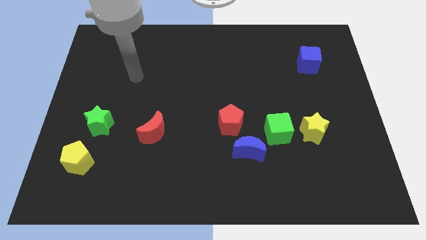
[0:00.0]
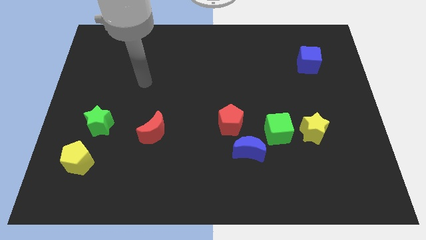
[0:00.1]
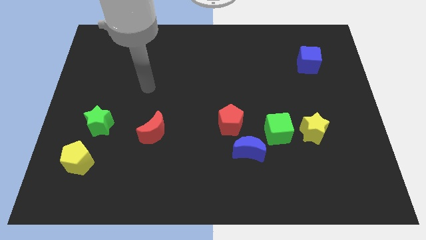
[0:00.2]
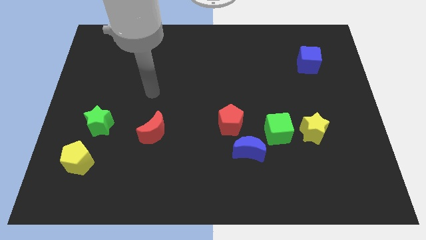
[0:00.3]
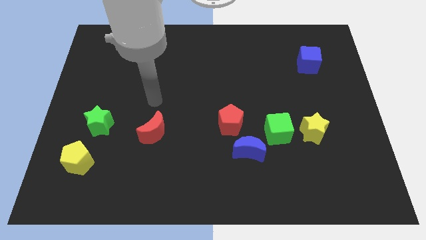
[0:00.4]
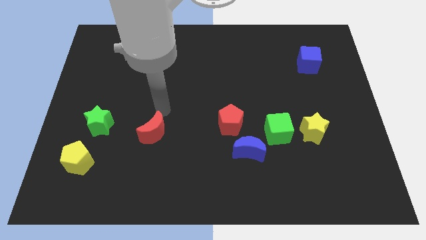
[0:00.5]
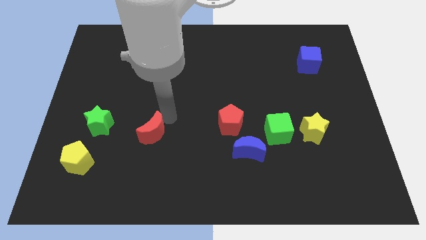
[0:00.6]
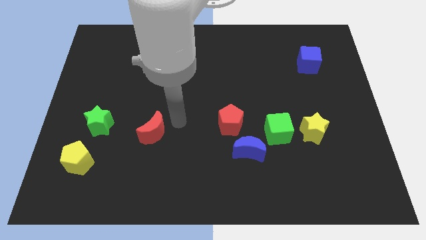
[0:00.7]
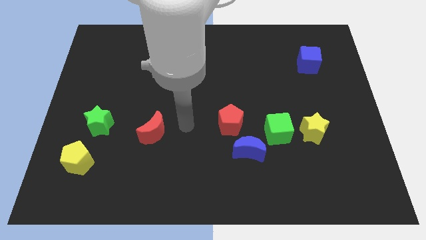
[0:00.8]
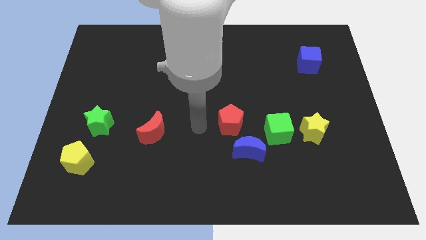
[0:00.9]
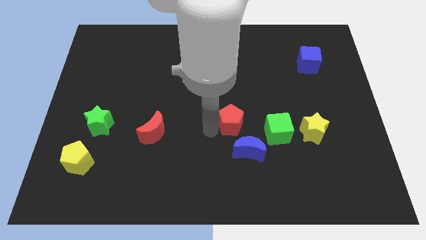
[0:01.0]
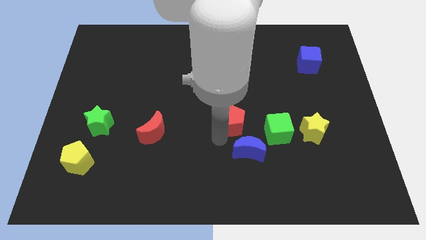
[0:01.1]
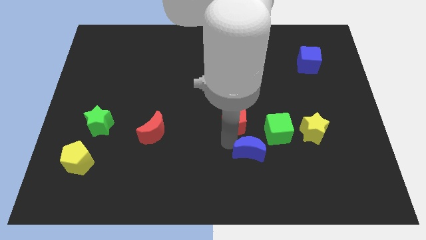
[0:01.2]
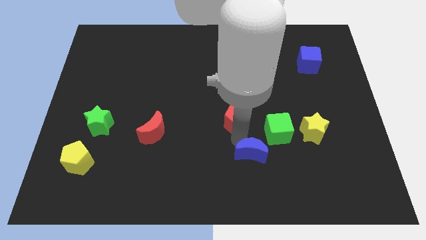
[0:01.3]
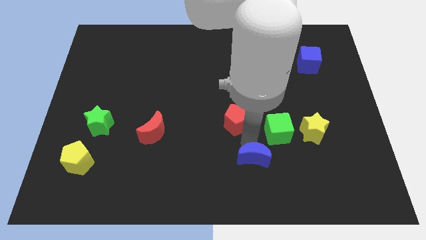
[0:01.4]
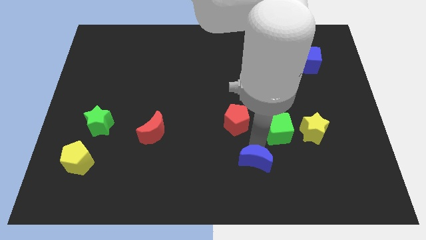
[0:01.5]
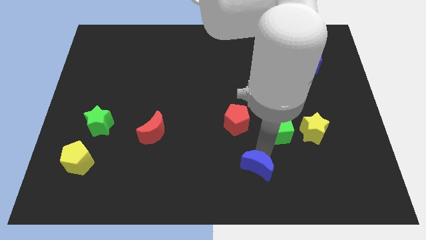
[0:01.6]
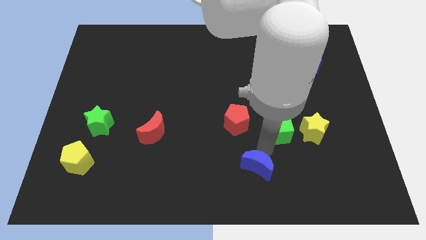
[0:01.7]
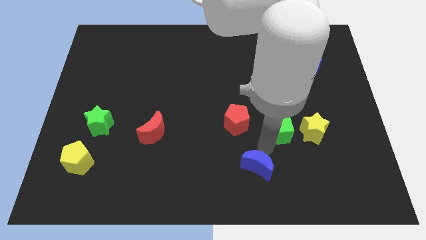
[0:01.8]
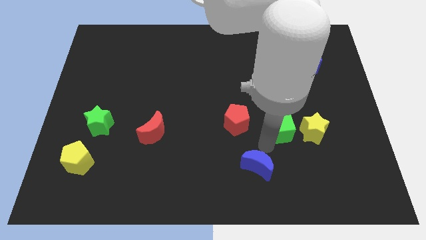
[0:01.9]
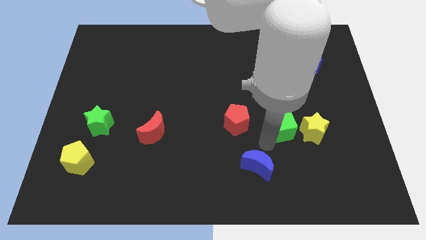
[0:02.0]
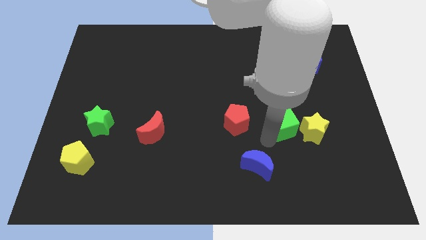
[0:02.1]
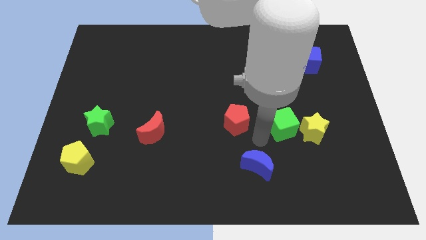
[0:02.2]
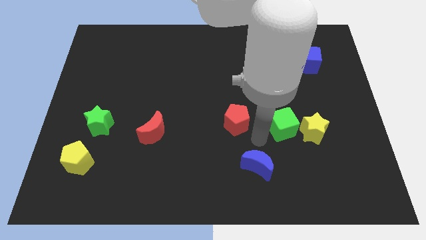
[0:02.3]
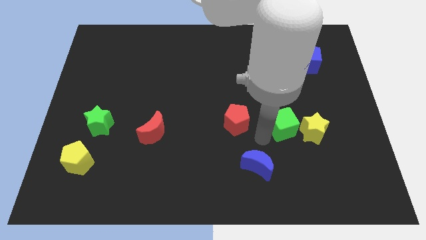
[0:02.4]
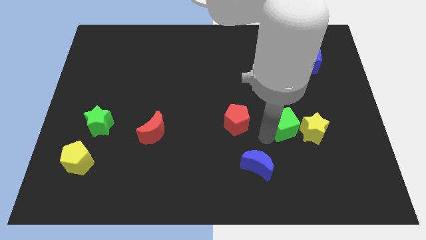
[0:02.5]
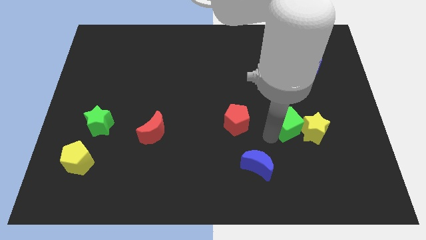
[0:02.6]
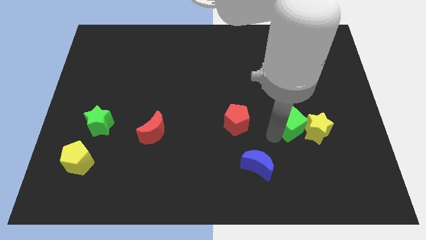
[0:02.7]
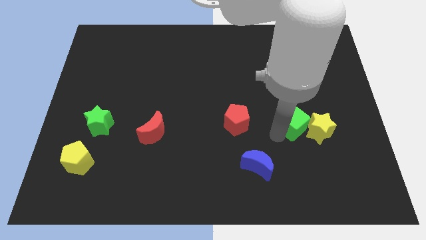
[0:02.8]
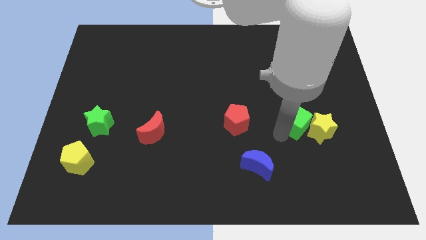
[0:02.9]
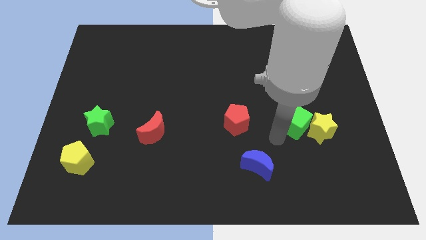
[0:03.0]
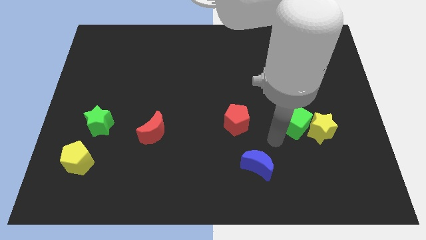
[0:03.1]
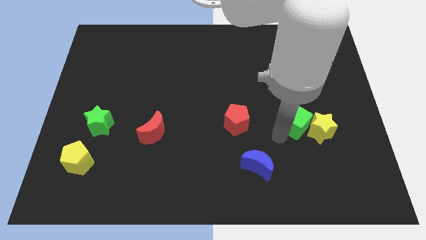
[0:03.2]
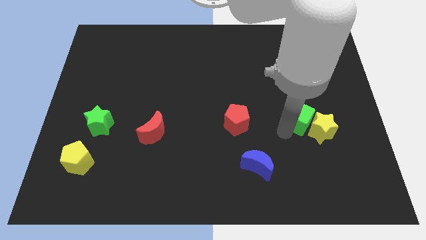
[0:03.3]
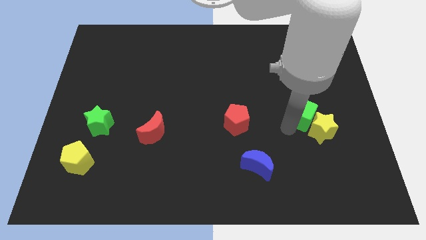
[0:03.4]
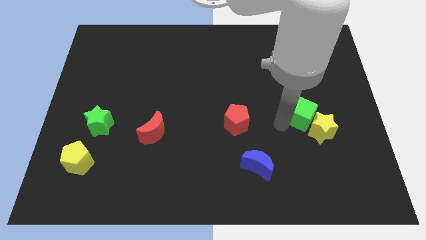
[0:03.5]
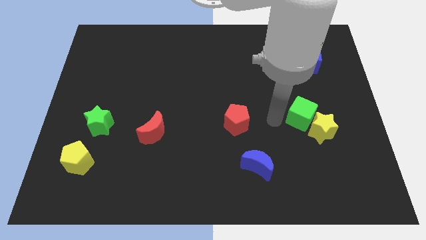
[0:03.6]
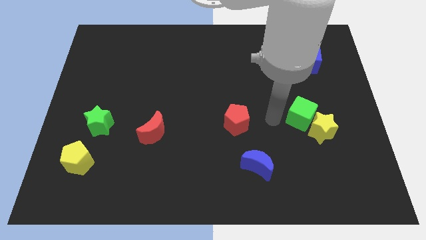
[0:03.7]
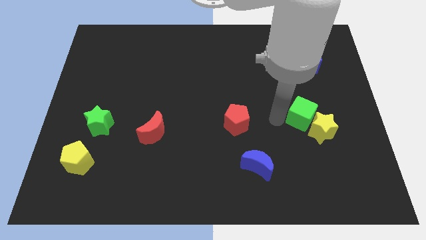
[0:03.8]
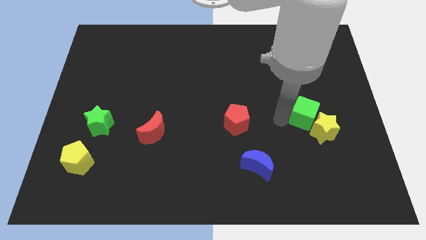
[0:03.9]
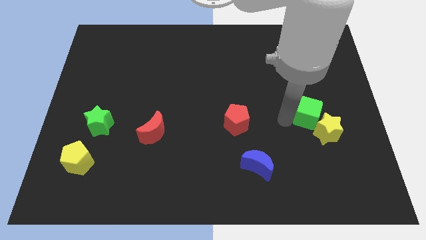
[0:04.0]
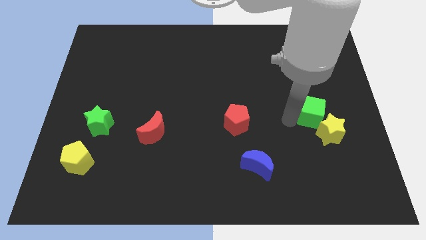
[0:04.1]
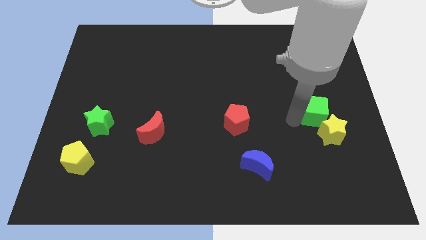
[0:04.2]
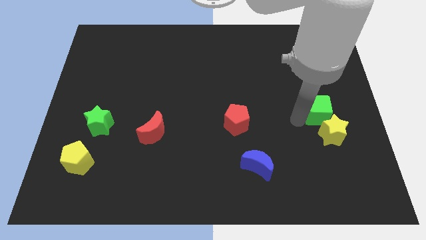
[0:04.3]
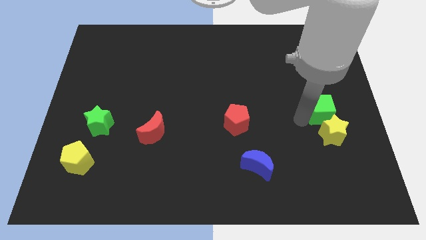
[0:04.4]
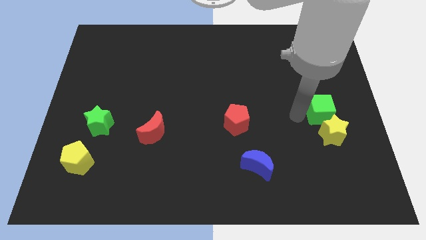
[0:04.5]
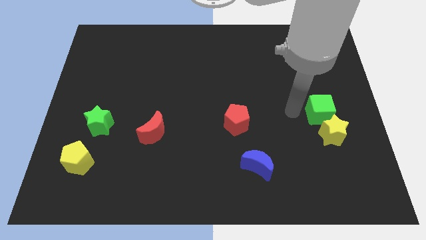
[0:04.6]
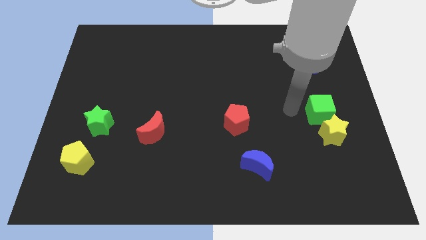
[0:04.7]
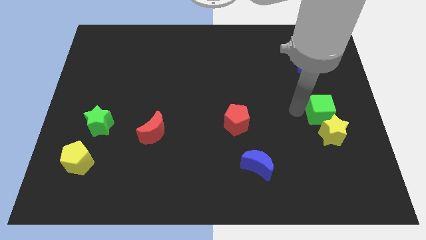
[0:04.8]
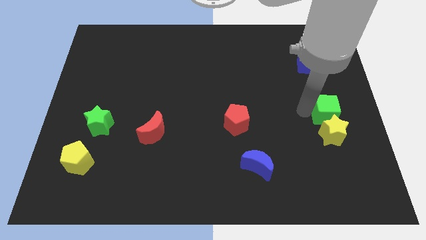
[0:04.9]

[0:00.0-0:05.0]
move the green cube to the top right of the yellow star

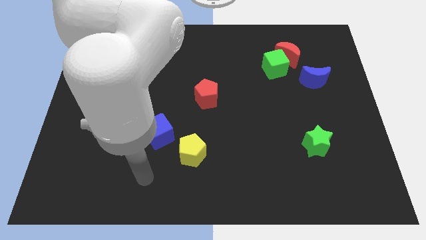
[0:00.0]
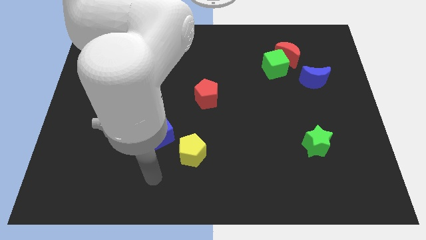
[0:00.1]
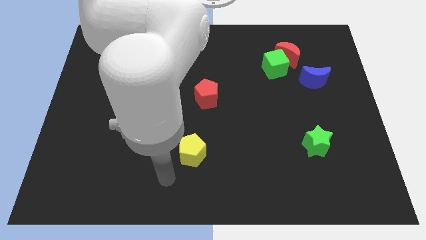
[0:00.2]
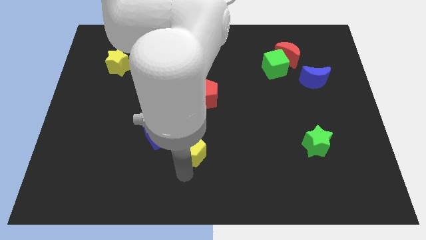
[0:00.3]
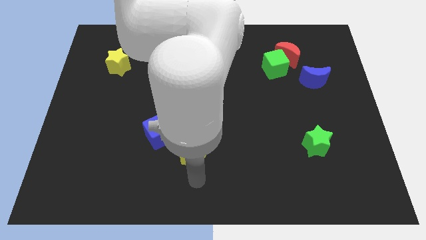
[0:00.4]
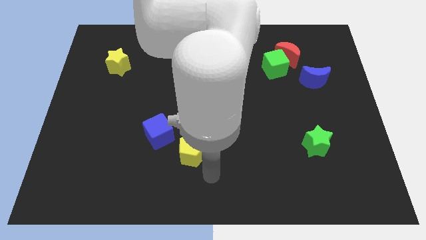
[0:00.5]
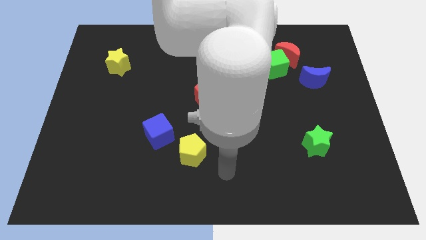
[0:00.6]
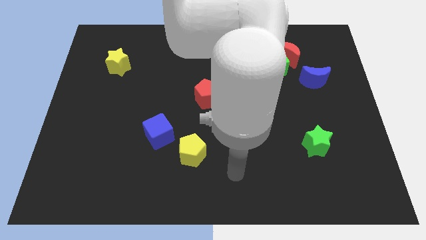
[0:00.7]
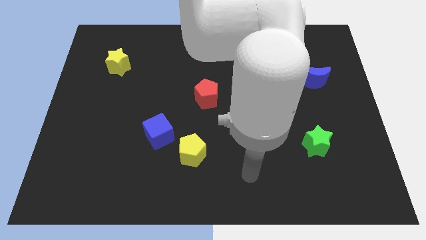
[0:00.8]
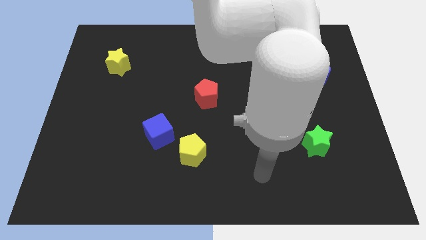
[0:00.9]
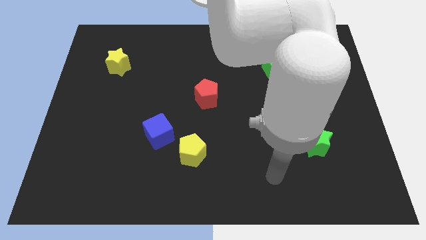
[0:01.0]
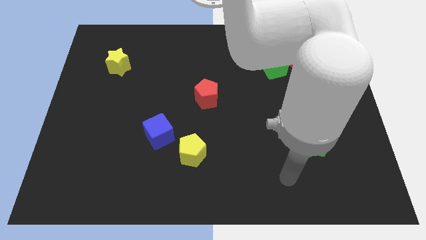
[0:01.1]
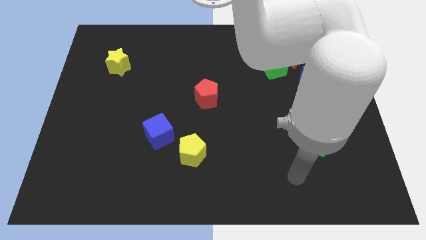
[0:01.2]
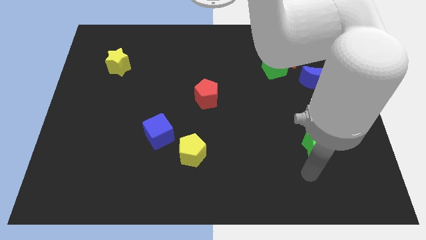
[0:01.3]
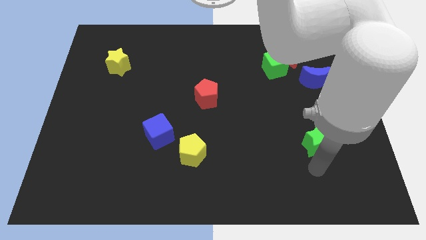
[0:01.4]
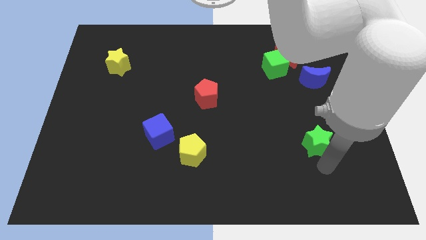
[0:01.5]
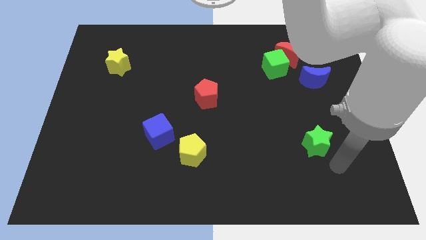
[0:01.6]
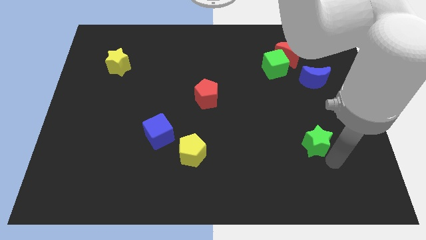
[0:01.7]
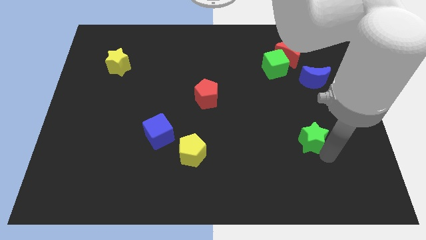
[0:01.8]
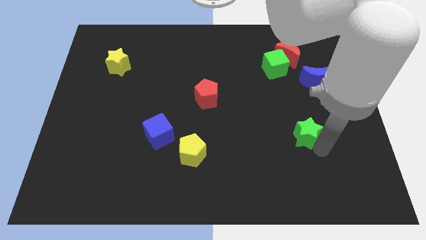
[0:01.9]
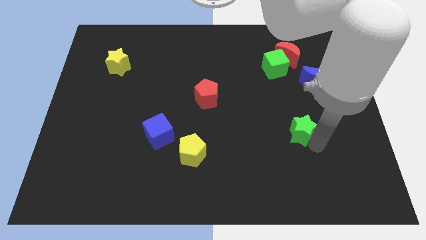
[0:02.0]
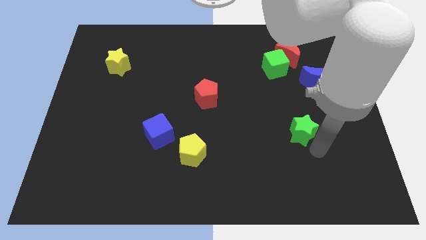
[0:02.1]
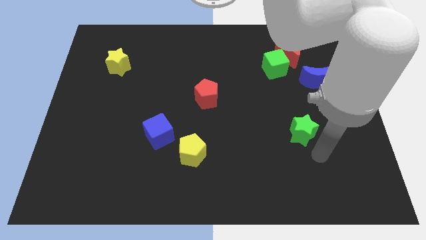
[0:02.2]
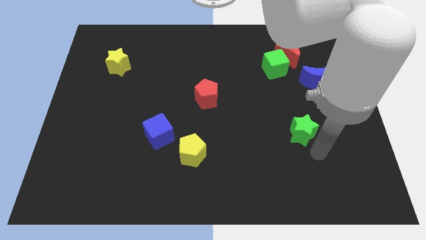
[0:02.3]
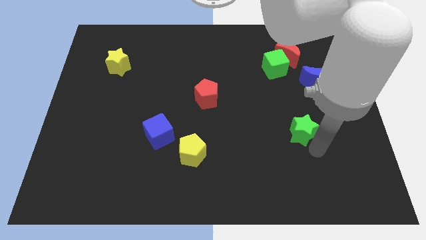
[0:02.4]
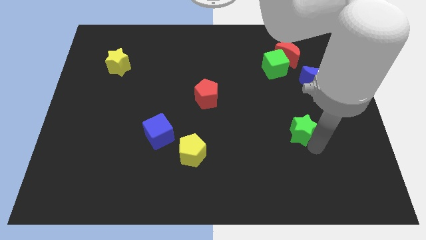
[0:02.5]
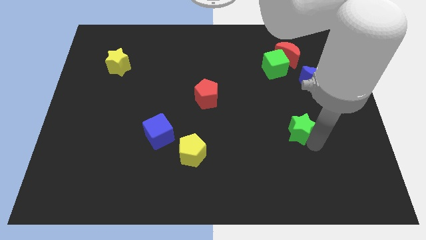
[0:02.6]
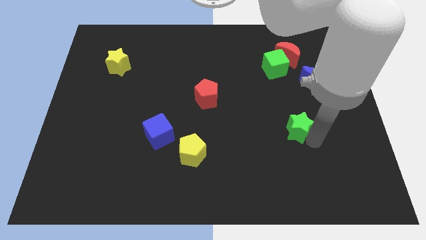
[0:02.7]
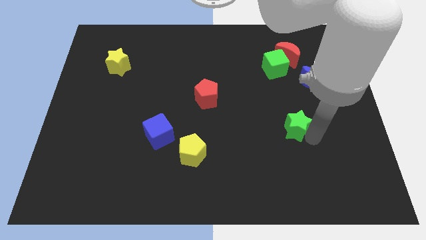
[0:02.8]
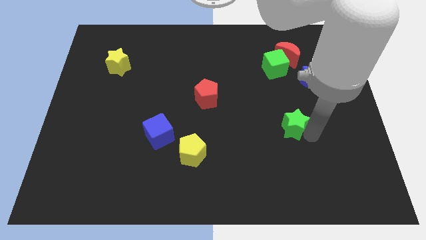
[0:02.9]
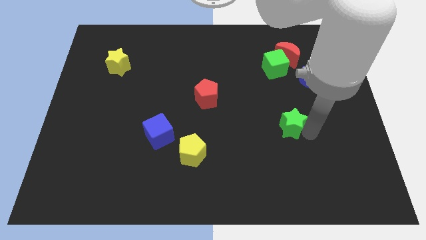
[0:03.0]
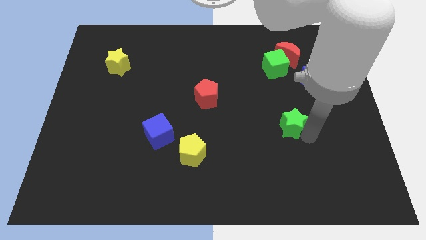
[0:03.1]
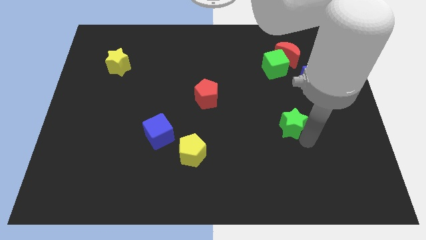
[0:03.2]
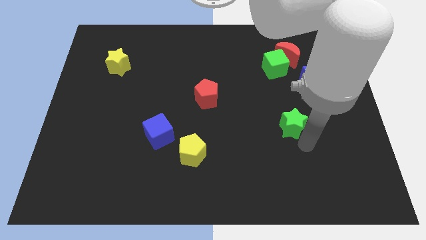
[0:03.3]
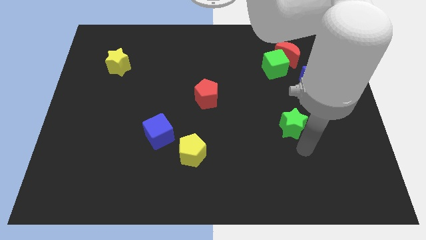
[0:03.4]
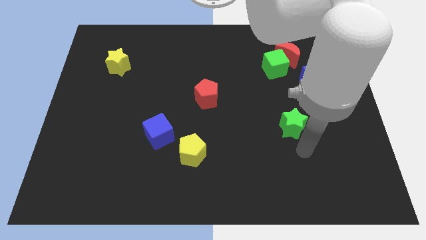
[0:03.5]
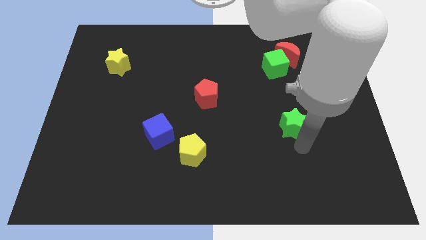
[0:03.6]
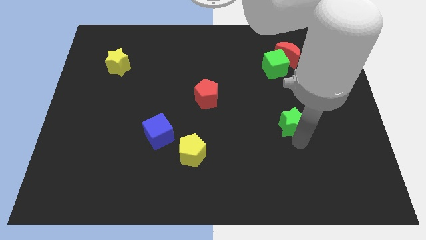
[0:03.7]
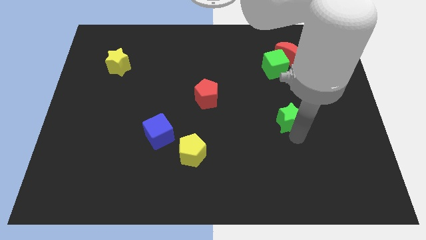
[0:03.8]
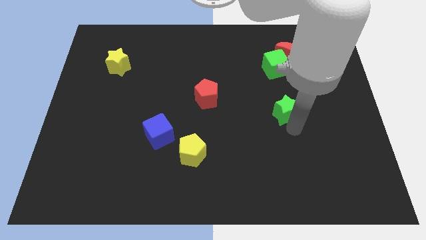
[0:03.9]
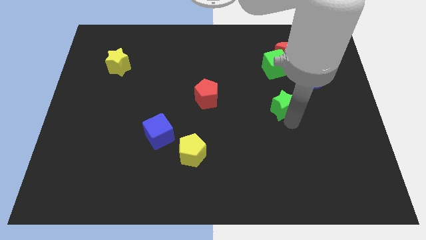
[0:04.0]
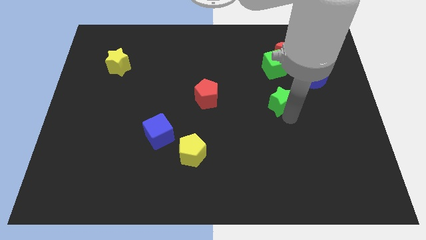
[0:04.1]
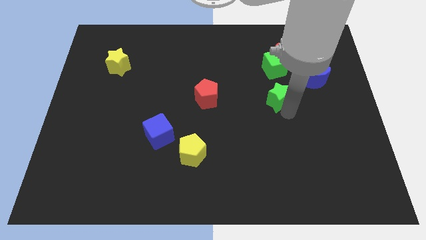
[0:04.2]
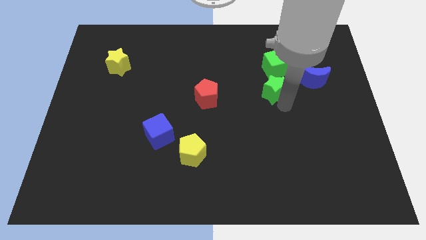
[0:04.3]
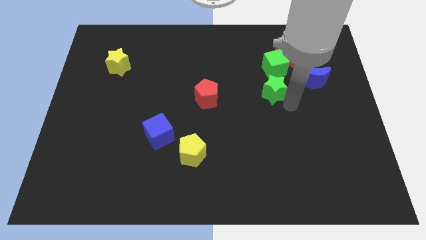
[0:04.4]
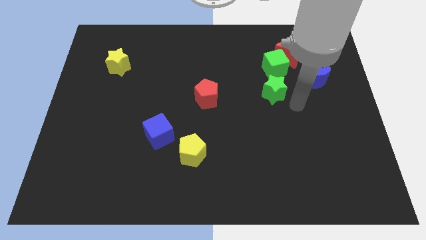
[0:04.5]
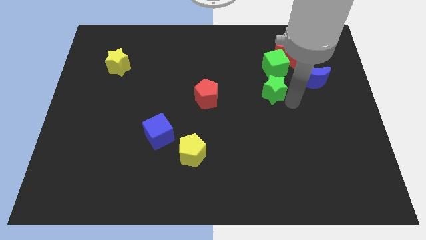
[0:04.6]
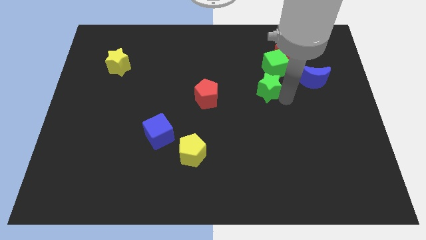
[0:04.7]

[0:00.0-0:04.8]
push the green star diagonally down and to the left of the green cube
